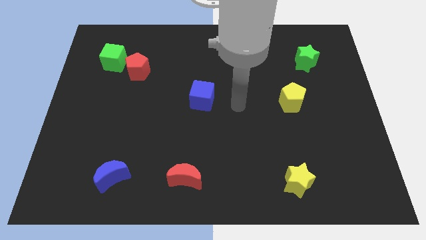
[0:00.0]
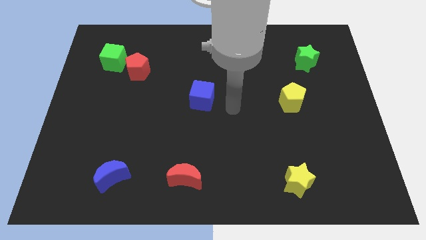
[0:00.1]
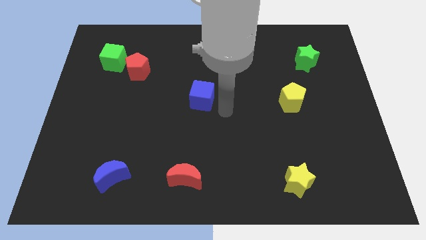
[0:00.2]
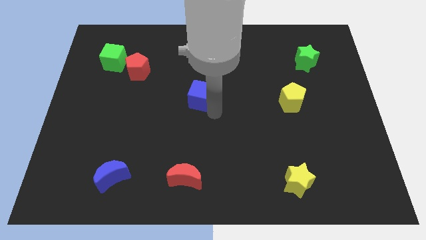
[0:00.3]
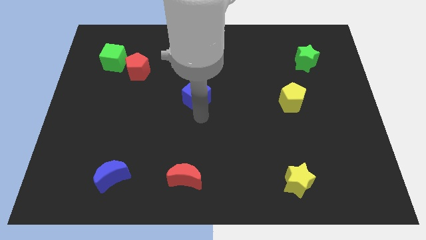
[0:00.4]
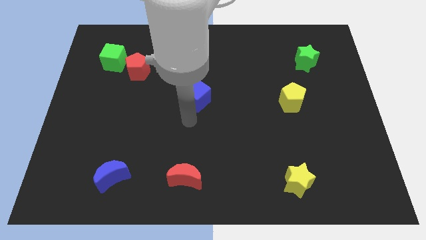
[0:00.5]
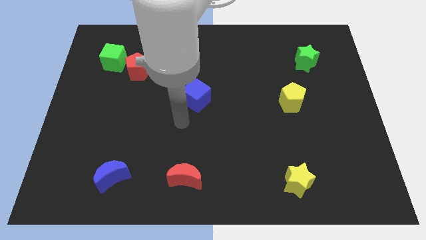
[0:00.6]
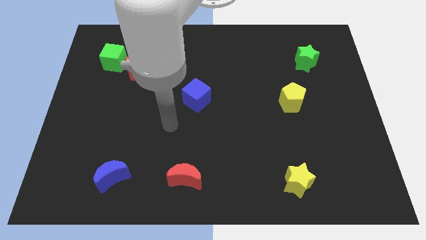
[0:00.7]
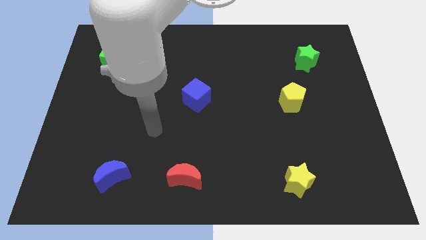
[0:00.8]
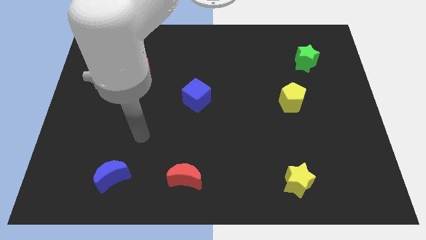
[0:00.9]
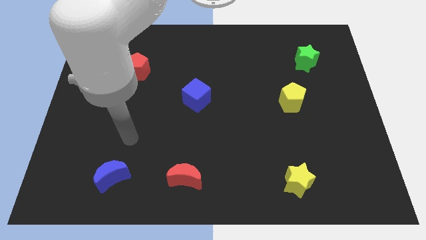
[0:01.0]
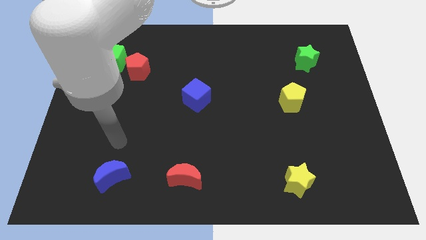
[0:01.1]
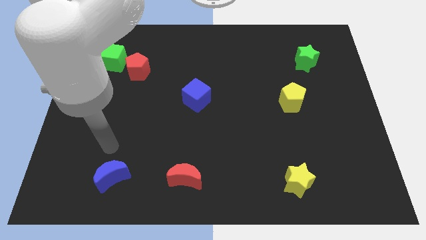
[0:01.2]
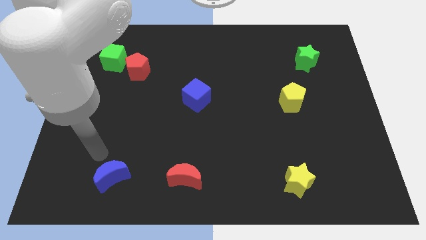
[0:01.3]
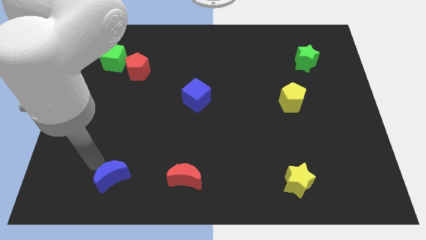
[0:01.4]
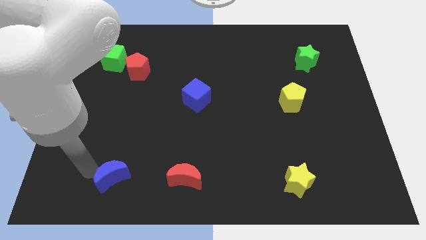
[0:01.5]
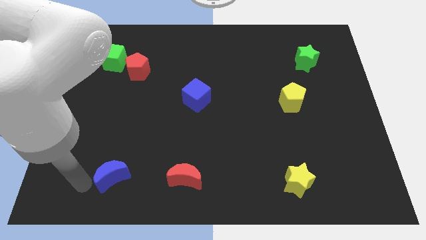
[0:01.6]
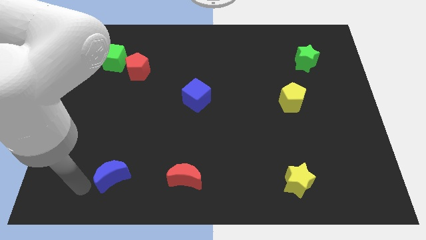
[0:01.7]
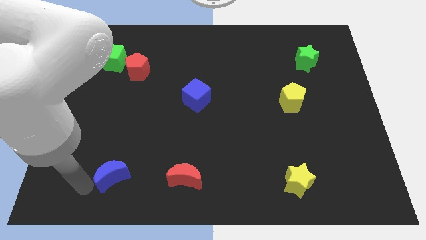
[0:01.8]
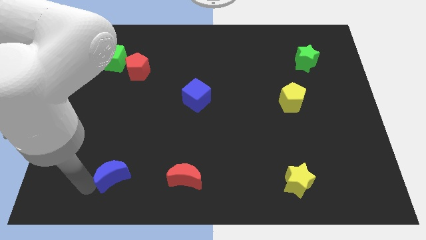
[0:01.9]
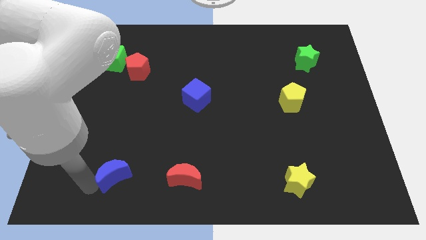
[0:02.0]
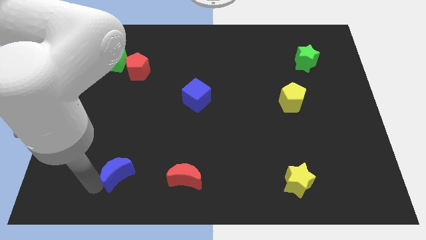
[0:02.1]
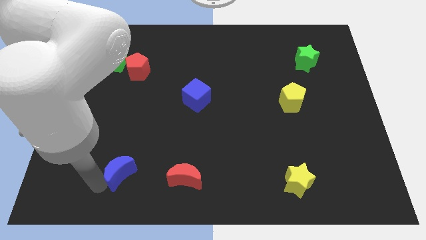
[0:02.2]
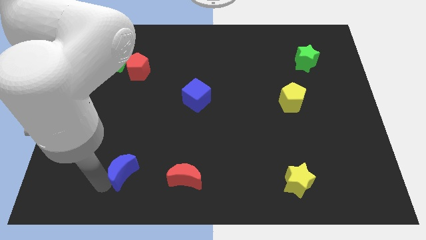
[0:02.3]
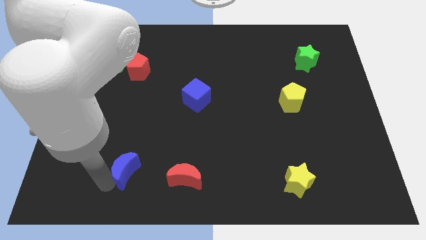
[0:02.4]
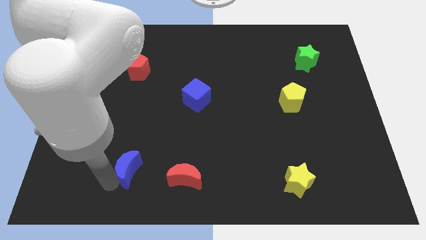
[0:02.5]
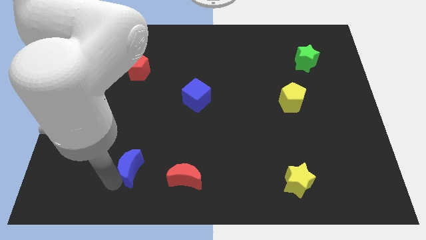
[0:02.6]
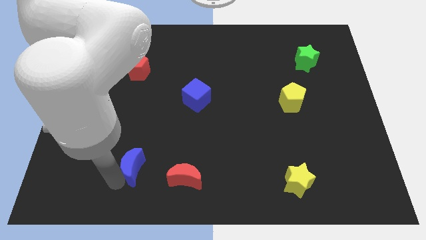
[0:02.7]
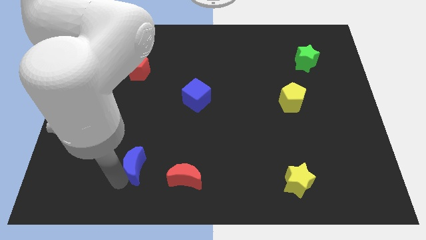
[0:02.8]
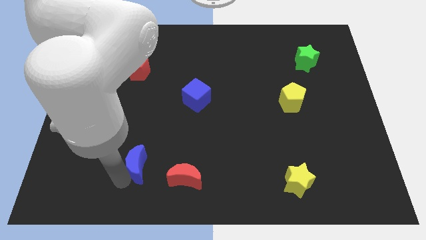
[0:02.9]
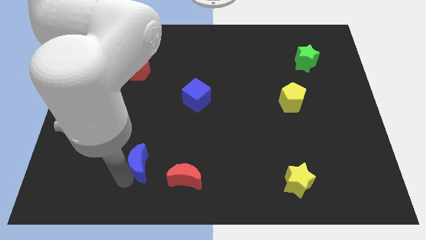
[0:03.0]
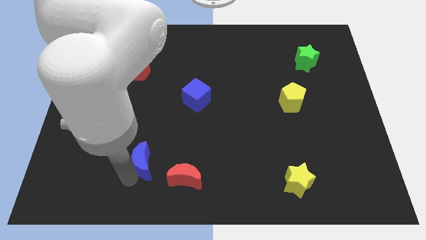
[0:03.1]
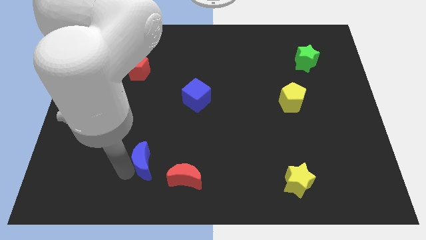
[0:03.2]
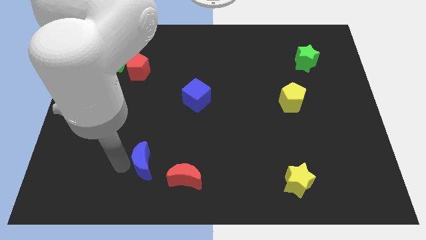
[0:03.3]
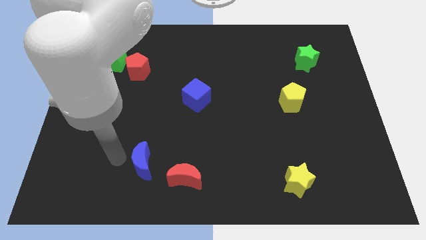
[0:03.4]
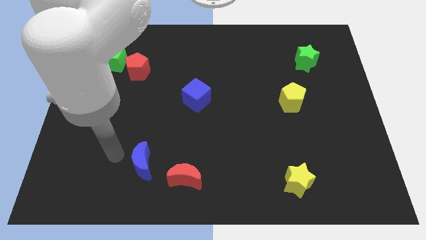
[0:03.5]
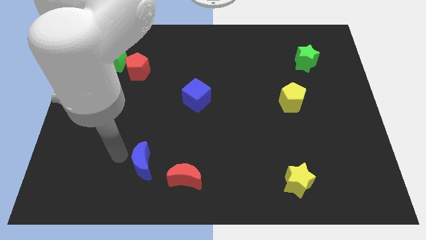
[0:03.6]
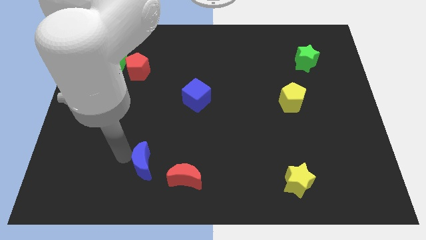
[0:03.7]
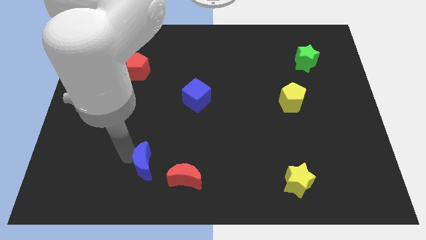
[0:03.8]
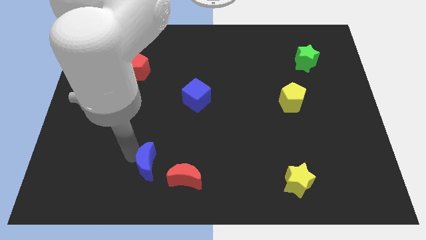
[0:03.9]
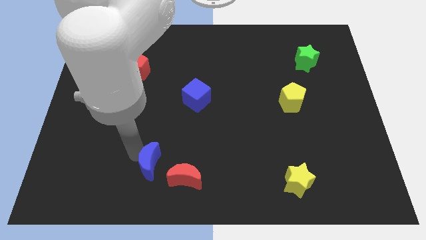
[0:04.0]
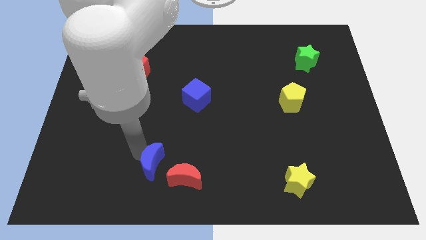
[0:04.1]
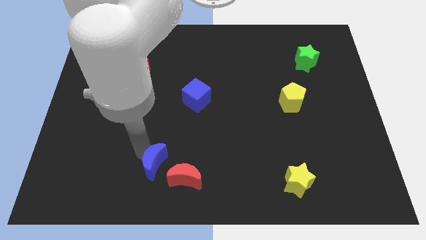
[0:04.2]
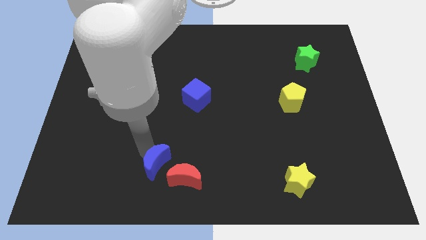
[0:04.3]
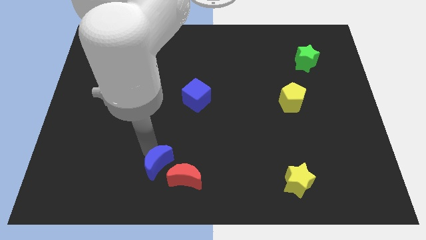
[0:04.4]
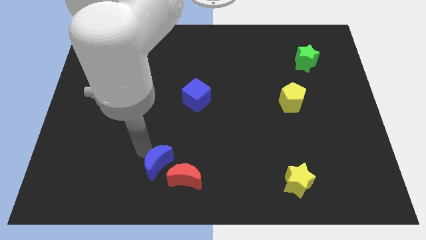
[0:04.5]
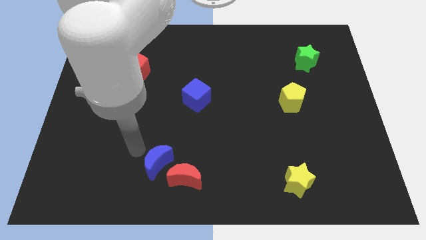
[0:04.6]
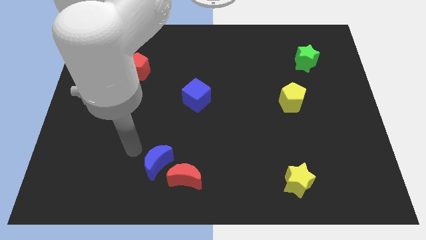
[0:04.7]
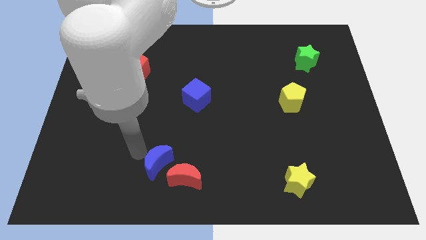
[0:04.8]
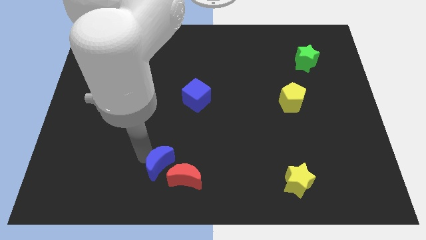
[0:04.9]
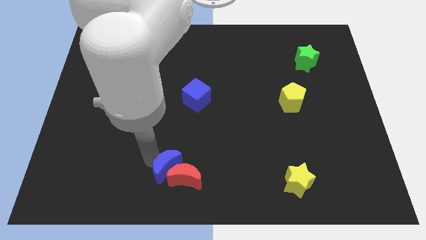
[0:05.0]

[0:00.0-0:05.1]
put the blue moon close to the red moon

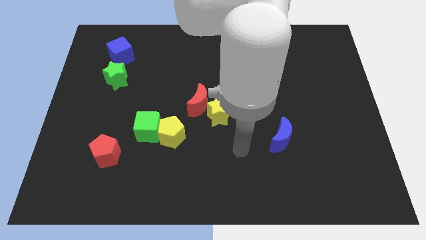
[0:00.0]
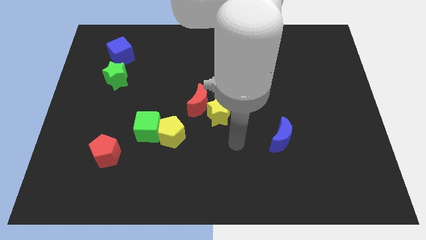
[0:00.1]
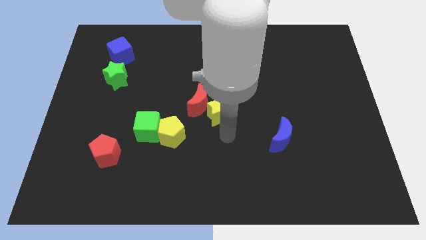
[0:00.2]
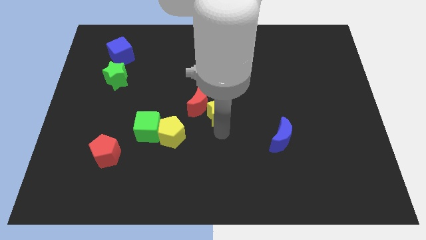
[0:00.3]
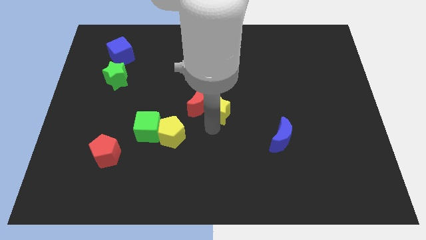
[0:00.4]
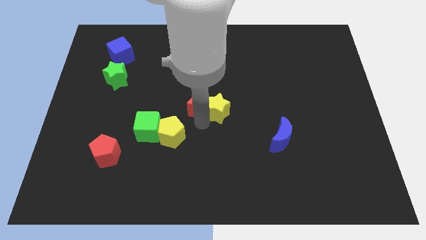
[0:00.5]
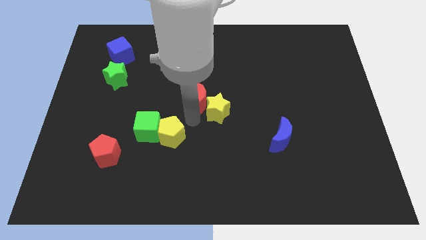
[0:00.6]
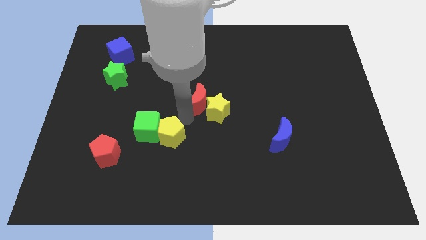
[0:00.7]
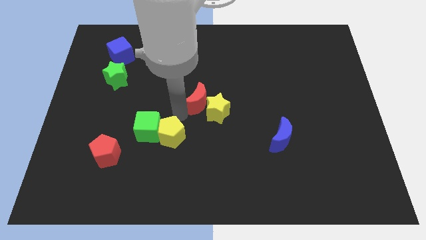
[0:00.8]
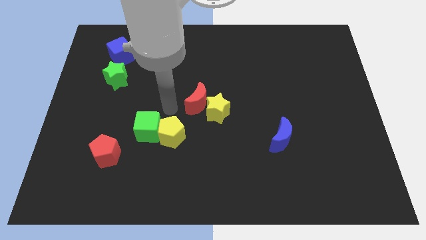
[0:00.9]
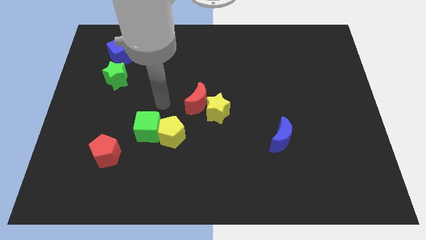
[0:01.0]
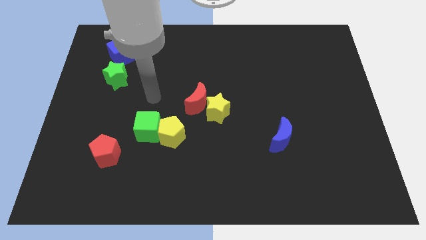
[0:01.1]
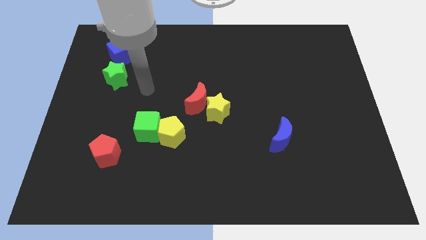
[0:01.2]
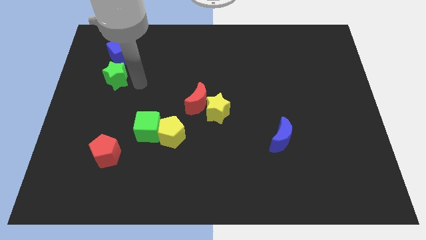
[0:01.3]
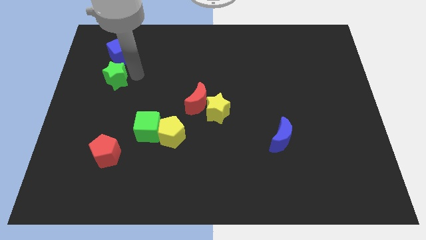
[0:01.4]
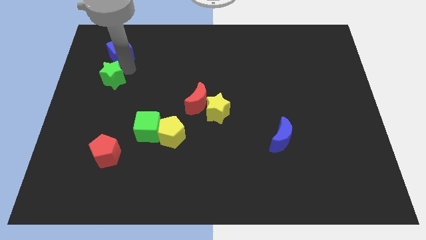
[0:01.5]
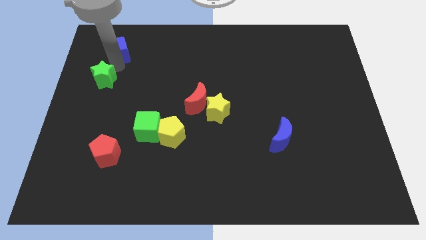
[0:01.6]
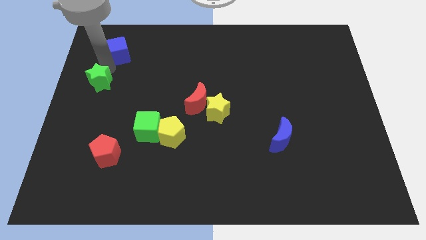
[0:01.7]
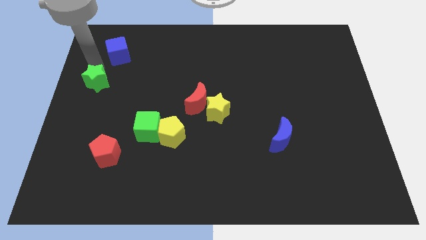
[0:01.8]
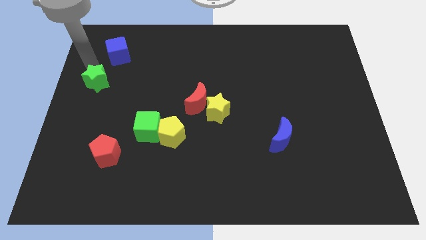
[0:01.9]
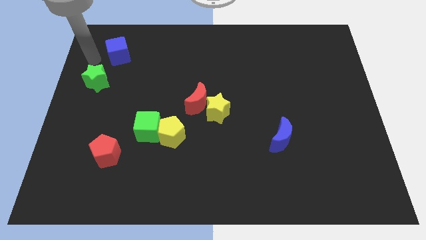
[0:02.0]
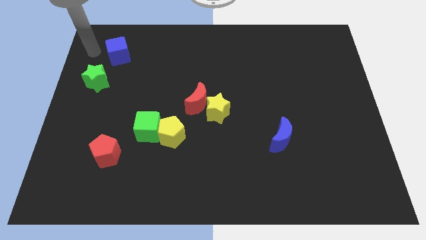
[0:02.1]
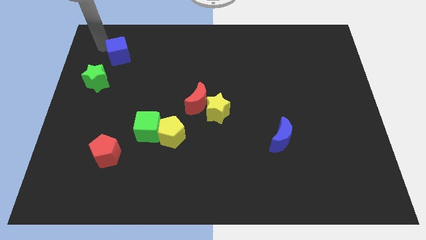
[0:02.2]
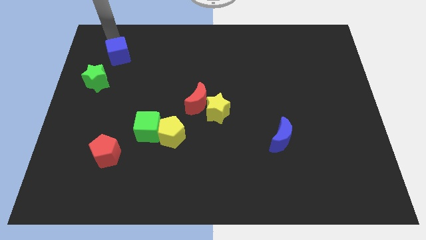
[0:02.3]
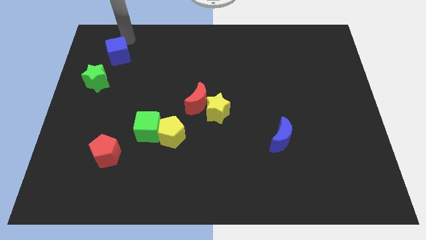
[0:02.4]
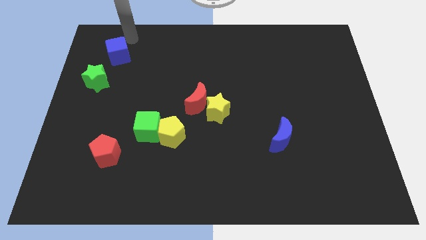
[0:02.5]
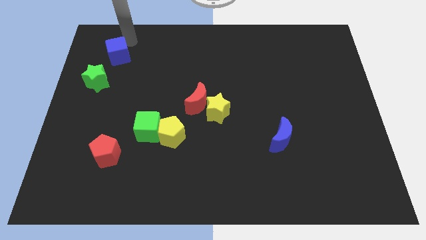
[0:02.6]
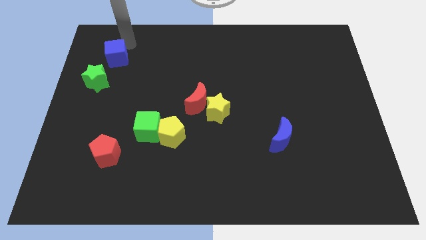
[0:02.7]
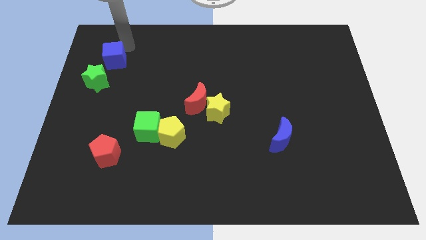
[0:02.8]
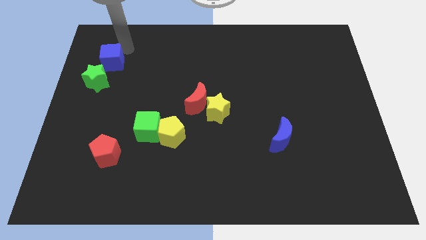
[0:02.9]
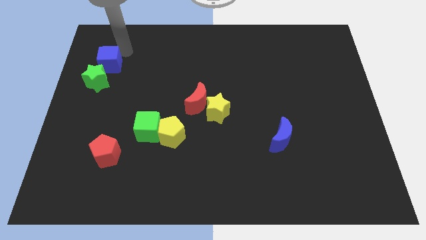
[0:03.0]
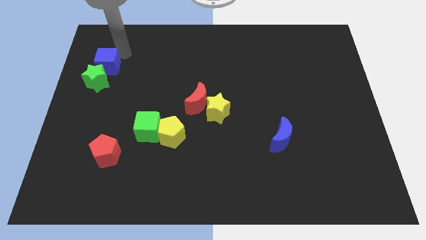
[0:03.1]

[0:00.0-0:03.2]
slide the blue cube to the green star
